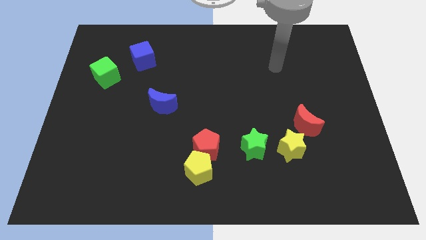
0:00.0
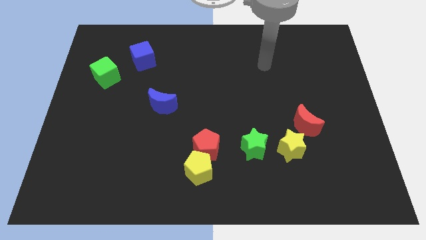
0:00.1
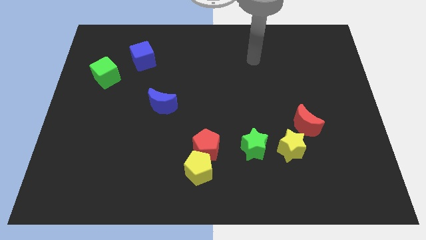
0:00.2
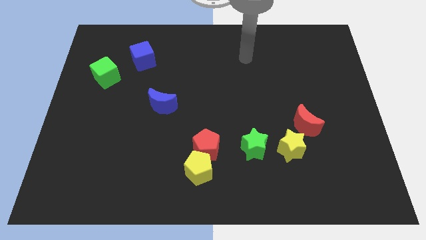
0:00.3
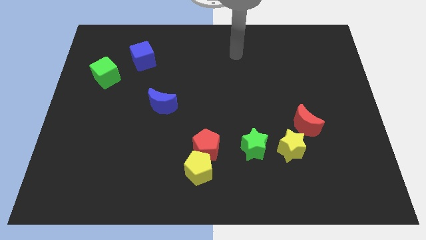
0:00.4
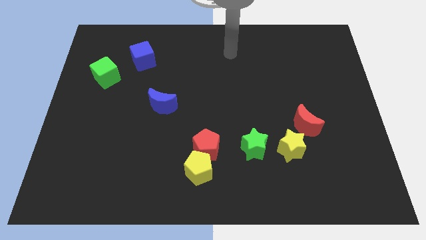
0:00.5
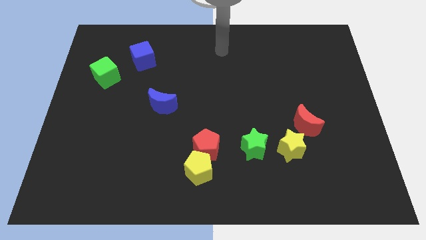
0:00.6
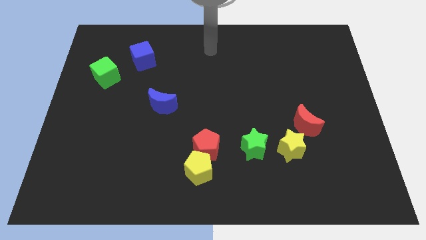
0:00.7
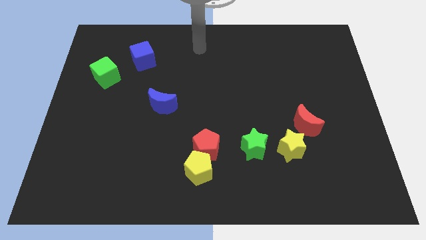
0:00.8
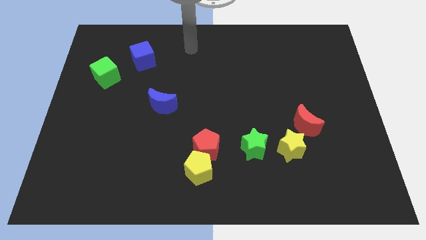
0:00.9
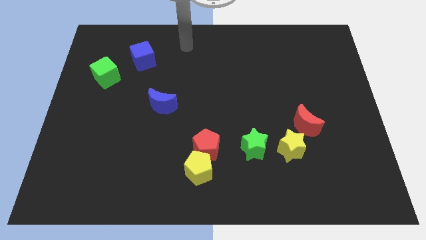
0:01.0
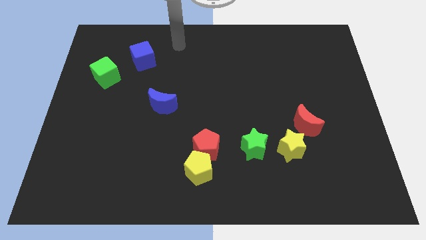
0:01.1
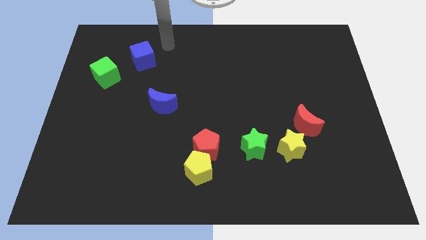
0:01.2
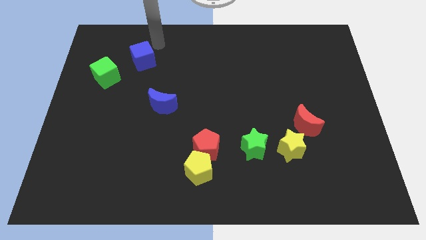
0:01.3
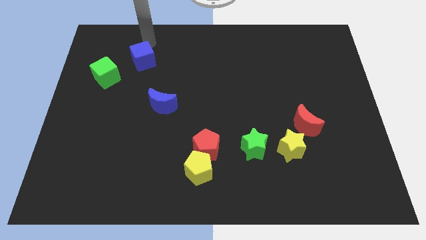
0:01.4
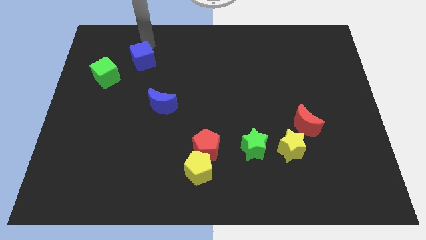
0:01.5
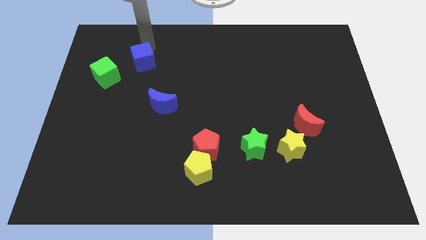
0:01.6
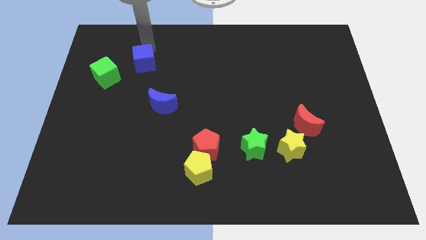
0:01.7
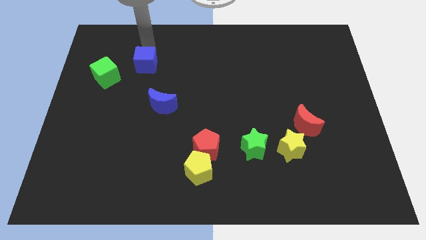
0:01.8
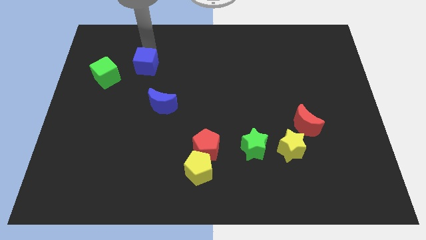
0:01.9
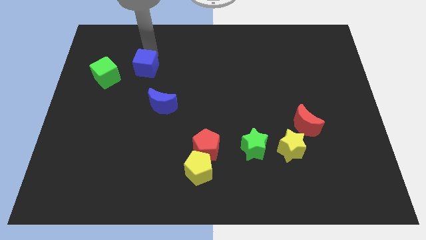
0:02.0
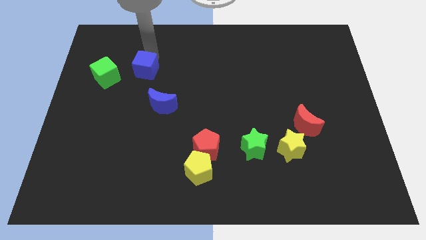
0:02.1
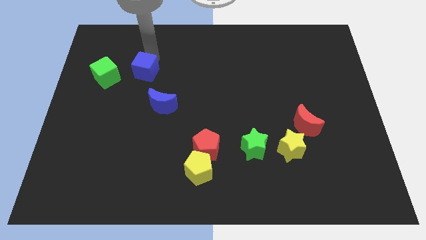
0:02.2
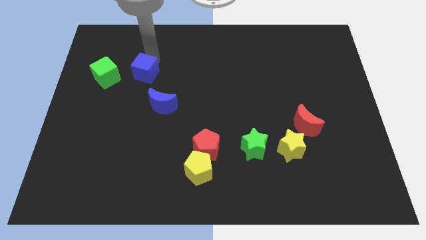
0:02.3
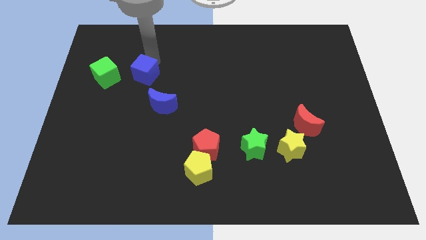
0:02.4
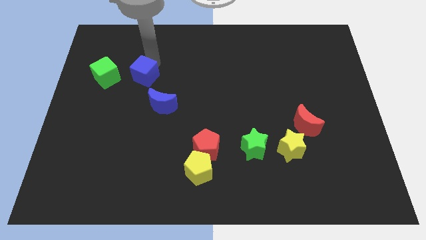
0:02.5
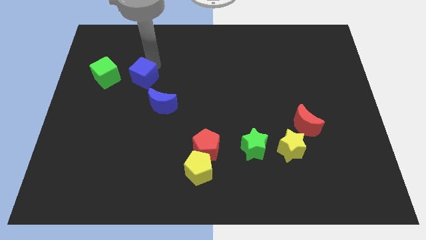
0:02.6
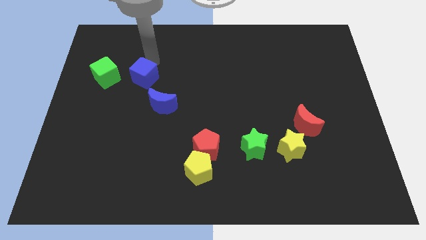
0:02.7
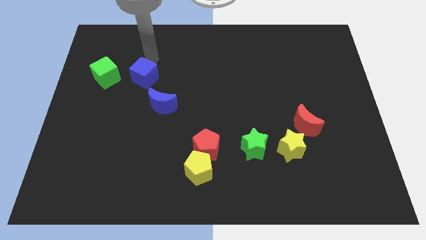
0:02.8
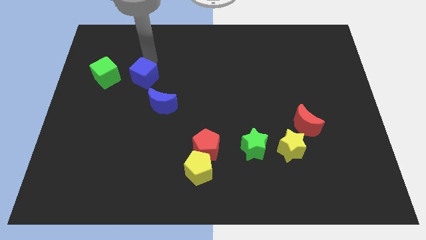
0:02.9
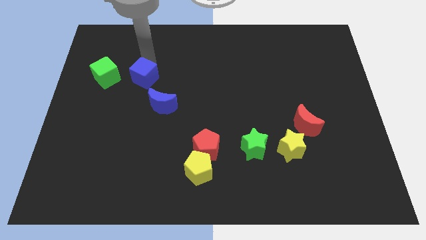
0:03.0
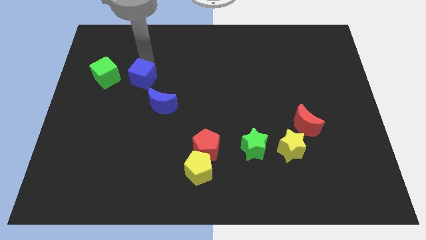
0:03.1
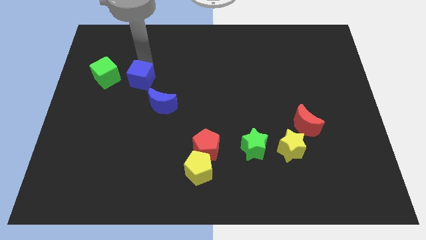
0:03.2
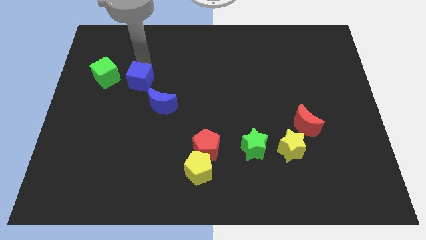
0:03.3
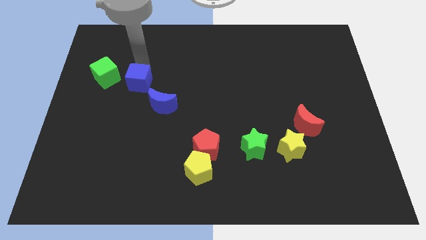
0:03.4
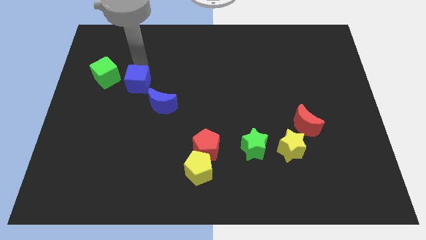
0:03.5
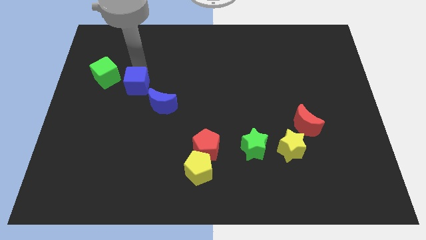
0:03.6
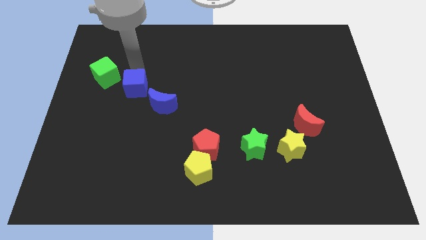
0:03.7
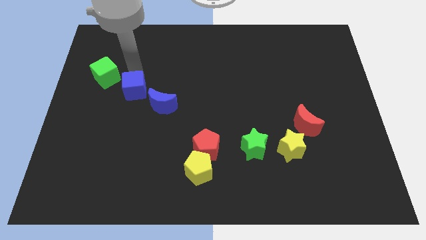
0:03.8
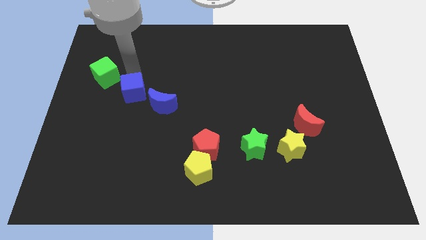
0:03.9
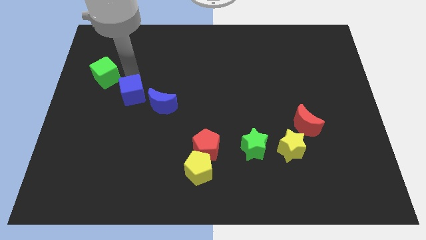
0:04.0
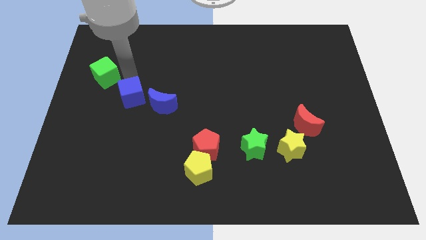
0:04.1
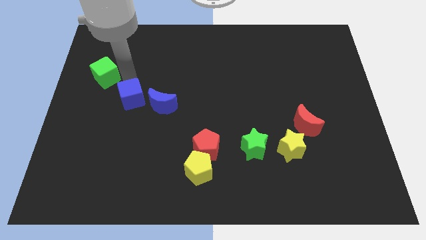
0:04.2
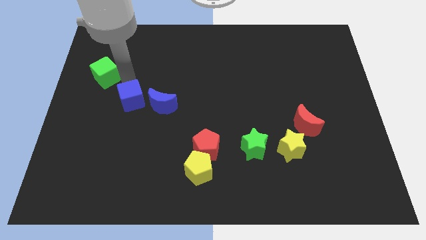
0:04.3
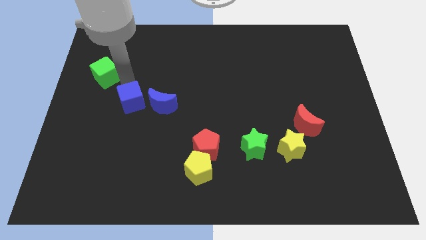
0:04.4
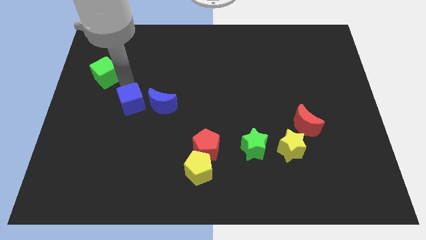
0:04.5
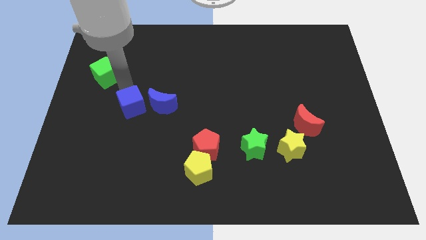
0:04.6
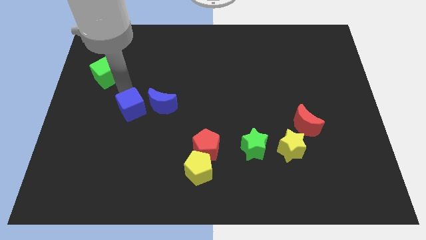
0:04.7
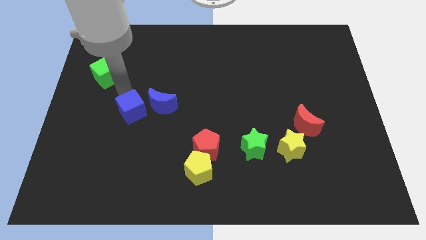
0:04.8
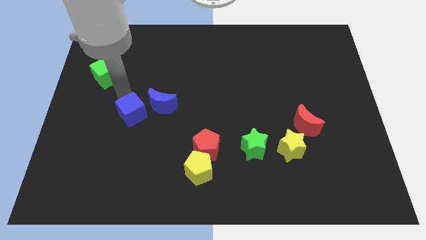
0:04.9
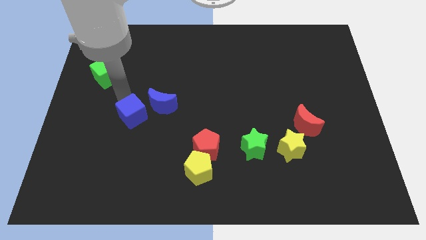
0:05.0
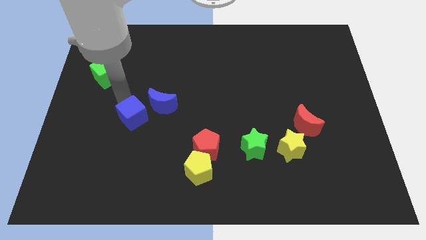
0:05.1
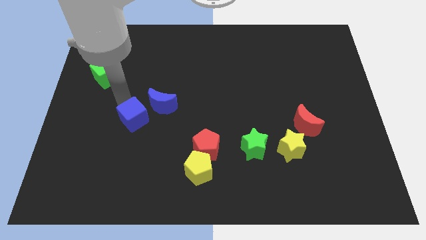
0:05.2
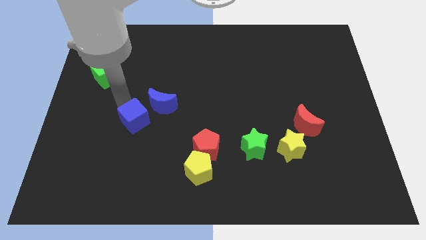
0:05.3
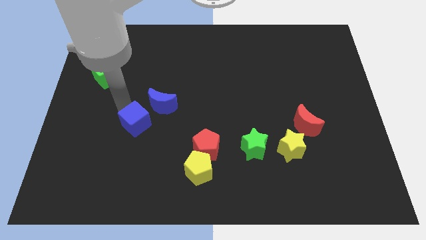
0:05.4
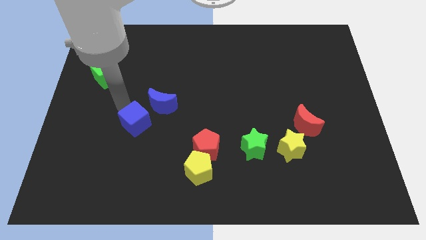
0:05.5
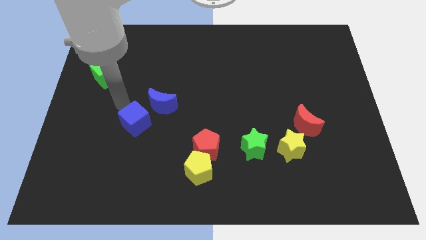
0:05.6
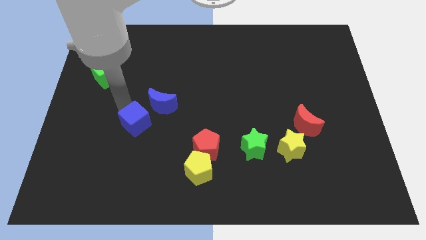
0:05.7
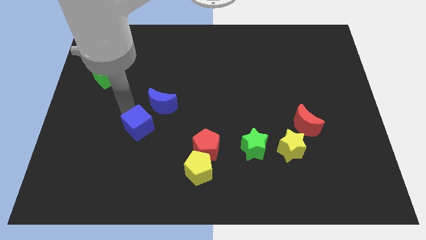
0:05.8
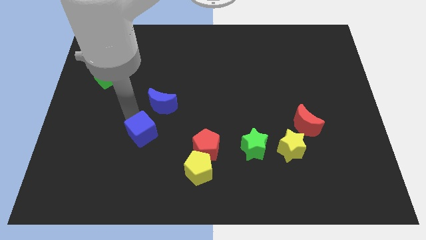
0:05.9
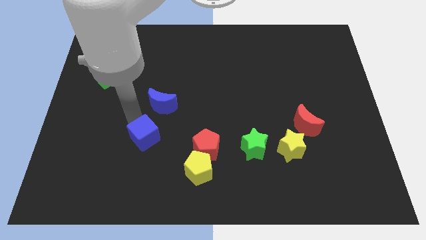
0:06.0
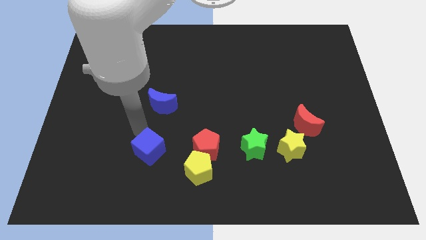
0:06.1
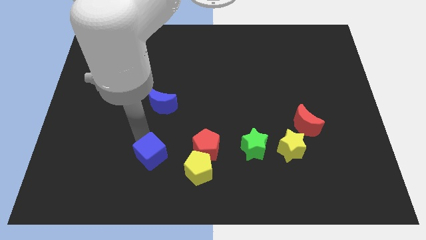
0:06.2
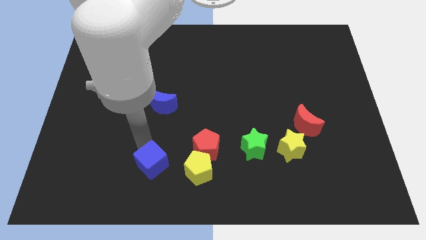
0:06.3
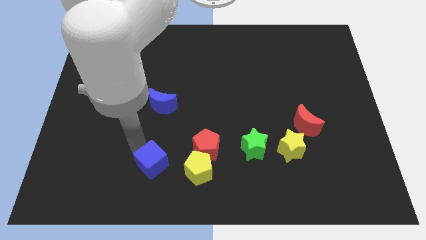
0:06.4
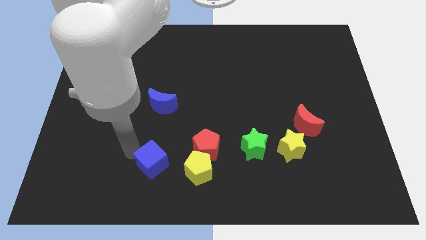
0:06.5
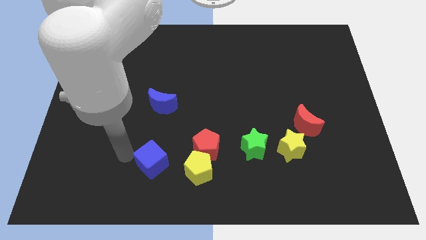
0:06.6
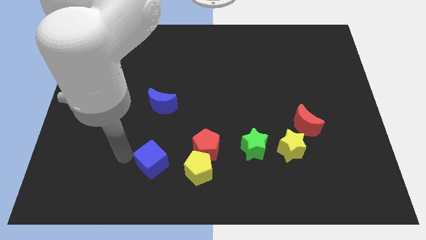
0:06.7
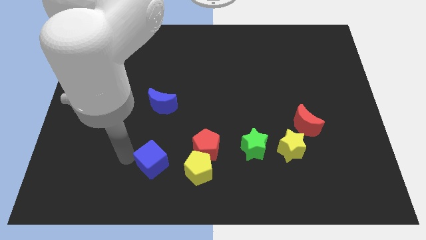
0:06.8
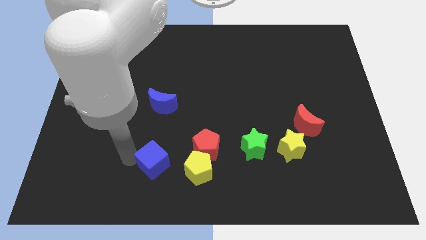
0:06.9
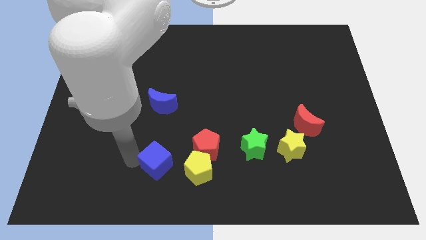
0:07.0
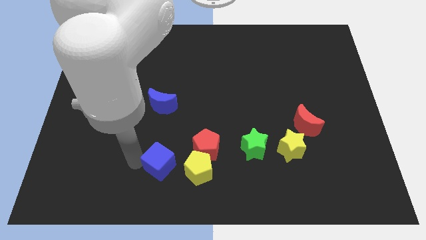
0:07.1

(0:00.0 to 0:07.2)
slide the blue cube to the bottom left side of the red pentagon

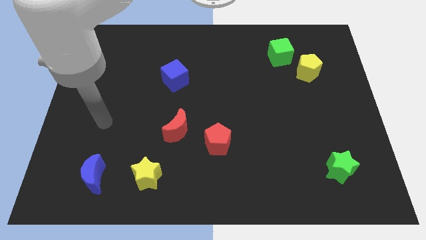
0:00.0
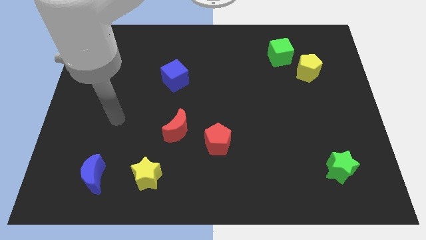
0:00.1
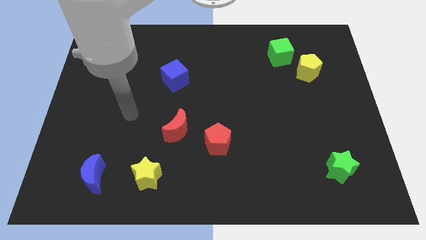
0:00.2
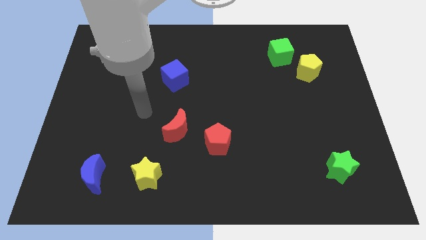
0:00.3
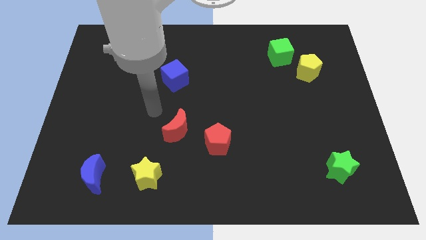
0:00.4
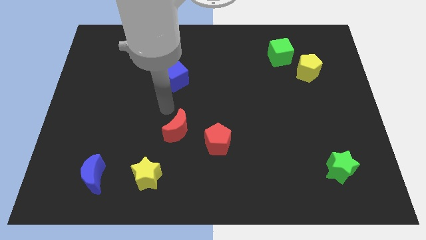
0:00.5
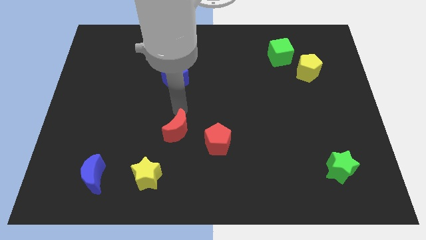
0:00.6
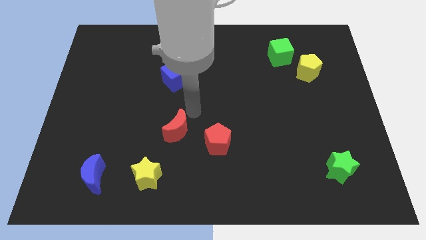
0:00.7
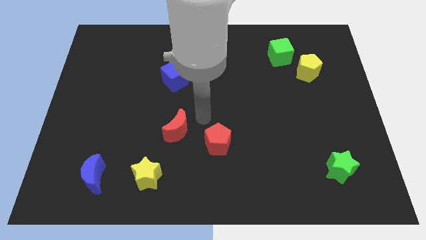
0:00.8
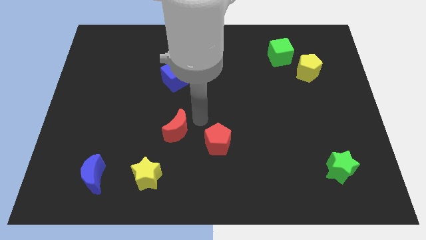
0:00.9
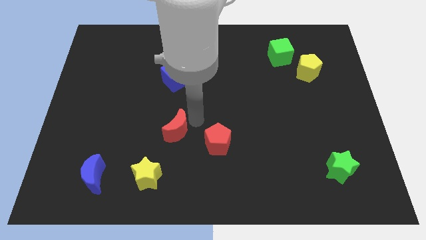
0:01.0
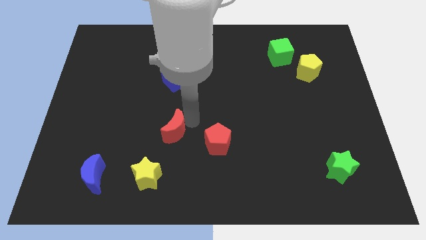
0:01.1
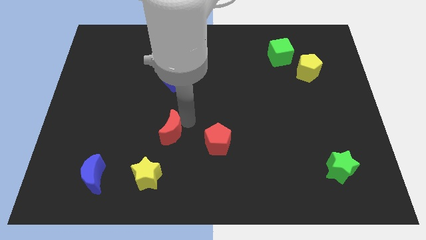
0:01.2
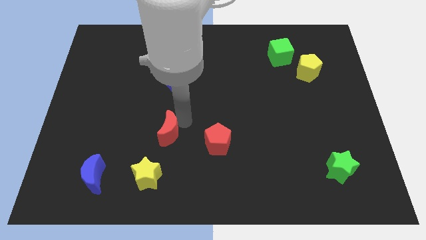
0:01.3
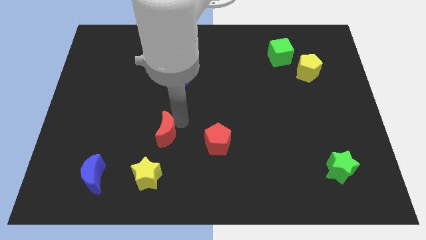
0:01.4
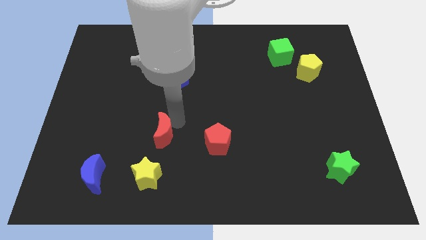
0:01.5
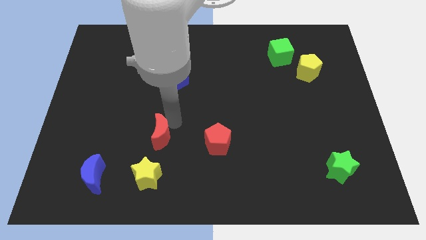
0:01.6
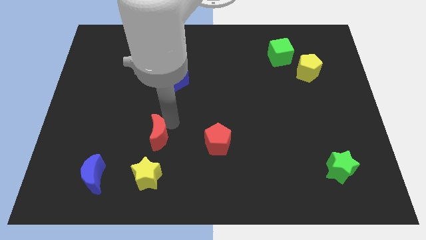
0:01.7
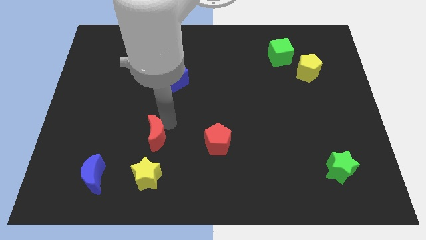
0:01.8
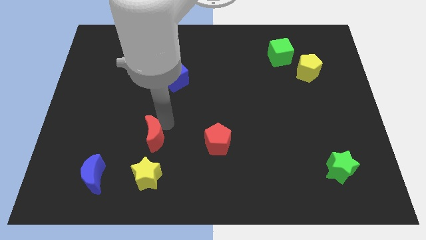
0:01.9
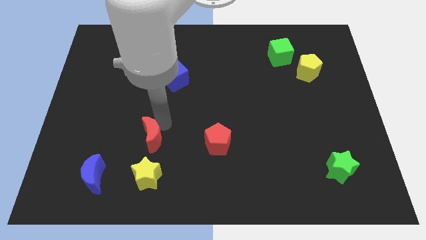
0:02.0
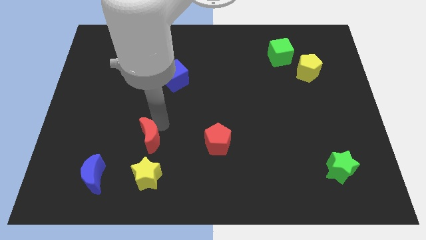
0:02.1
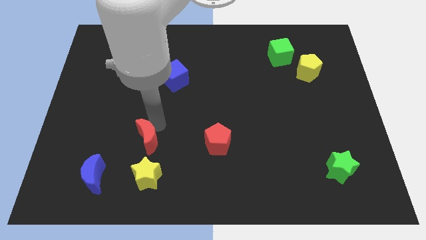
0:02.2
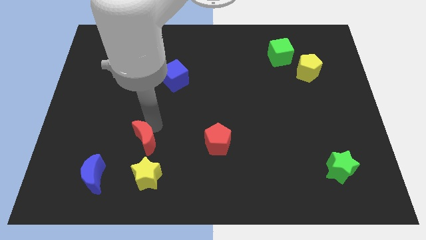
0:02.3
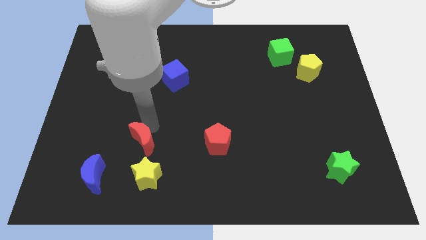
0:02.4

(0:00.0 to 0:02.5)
move the red moon to the top left side of the yellow star
